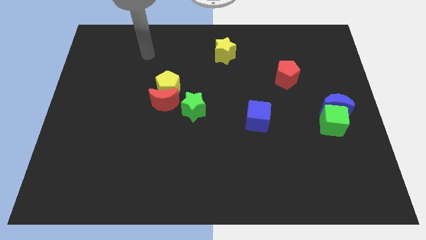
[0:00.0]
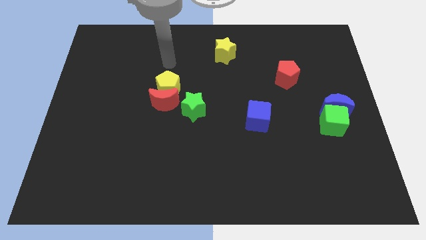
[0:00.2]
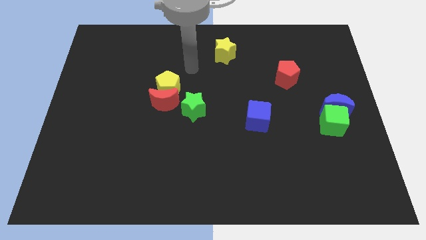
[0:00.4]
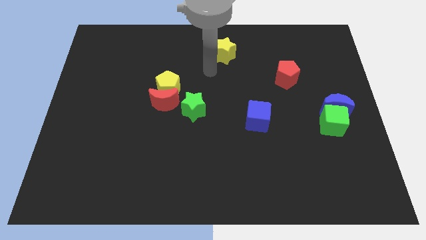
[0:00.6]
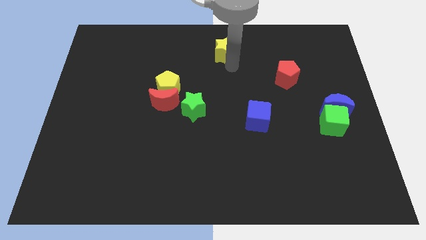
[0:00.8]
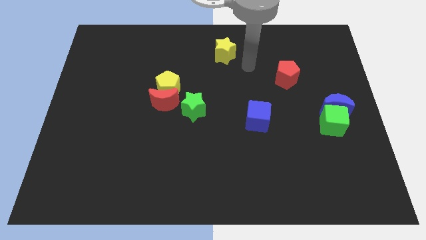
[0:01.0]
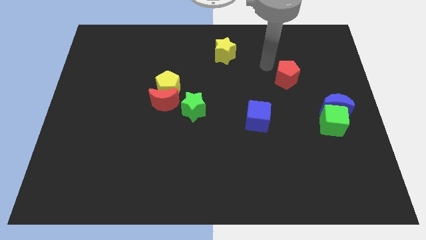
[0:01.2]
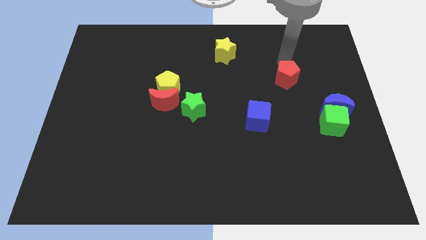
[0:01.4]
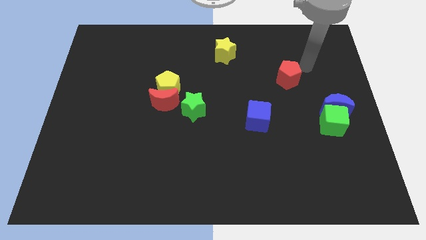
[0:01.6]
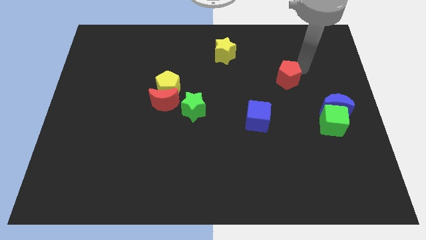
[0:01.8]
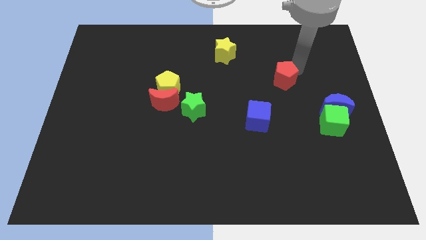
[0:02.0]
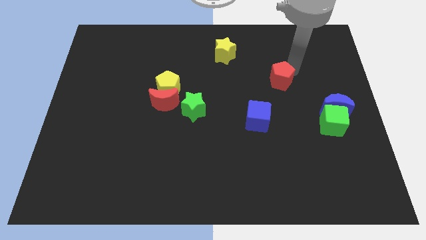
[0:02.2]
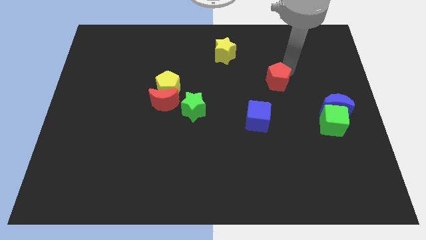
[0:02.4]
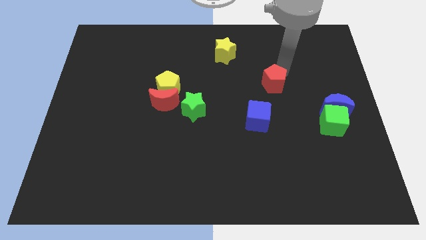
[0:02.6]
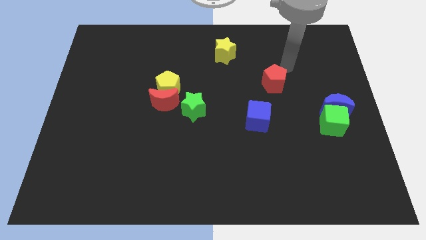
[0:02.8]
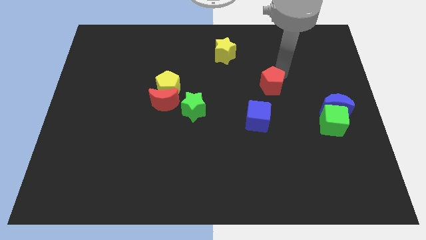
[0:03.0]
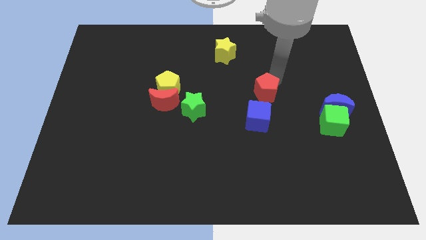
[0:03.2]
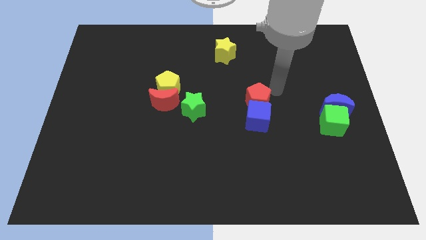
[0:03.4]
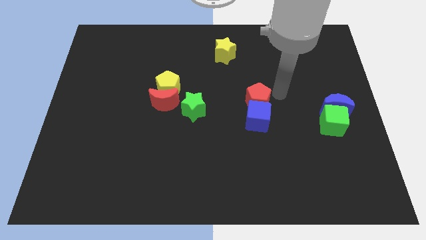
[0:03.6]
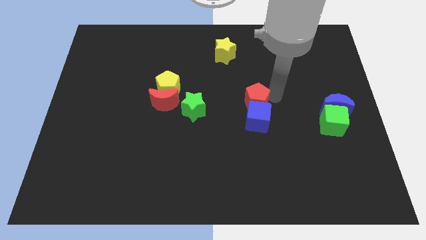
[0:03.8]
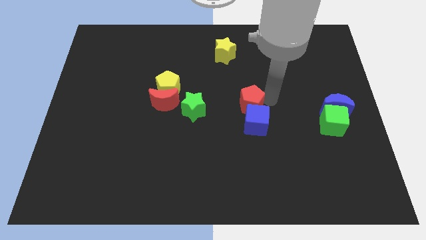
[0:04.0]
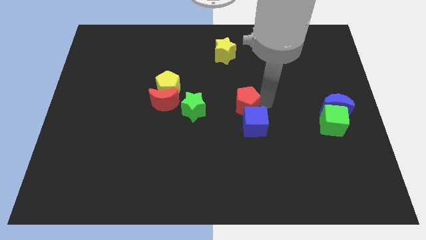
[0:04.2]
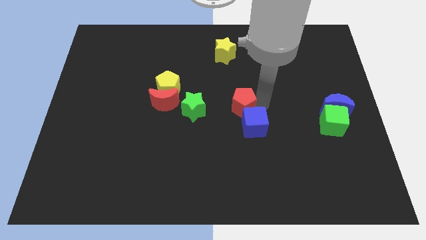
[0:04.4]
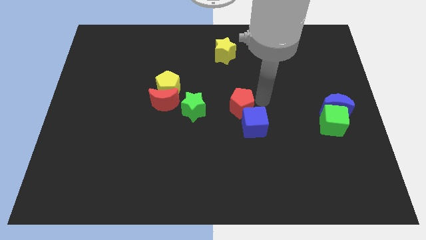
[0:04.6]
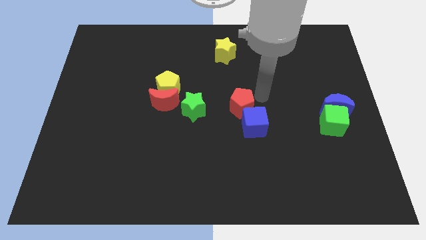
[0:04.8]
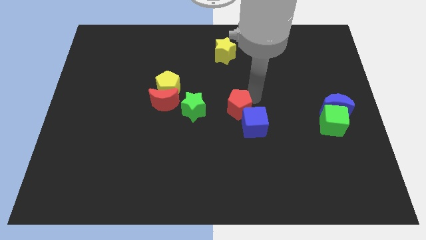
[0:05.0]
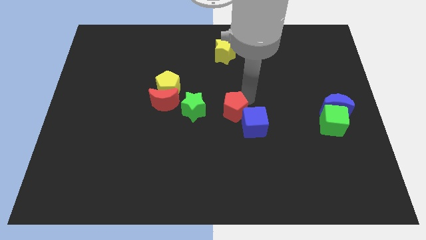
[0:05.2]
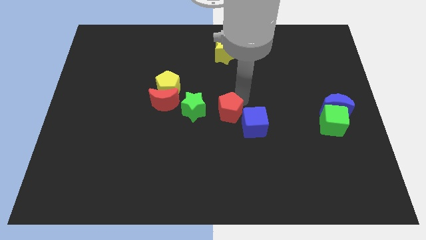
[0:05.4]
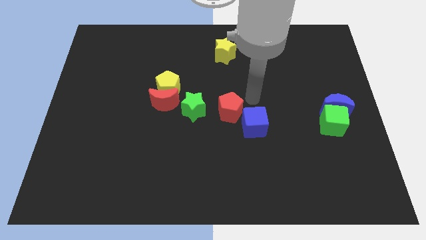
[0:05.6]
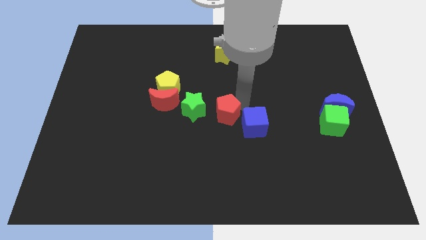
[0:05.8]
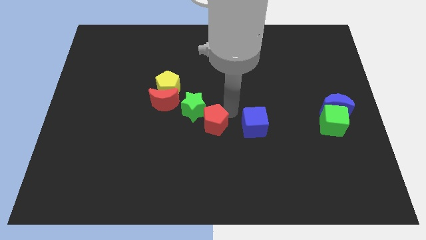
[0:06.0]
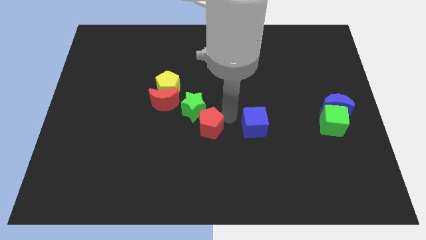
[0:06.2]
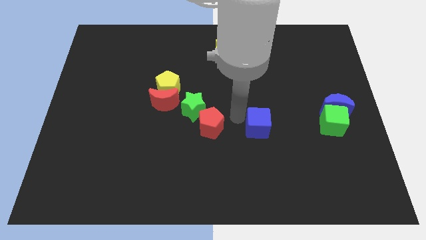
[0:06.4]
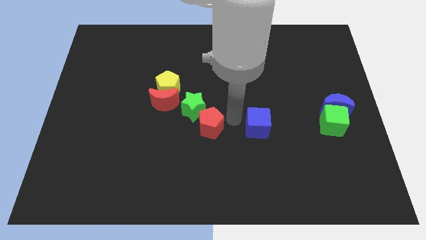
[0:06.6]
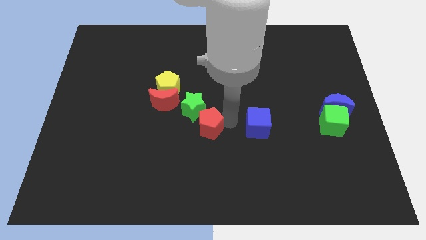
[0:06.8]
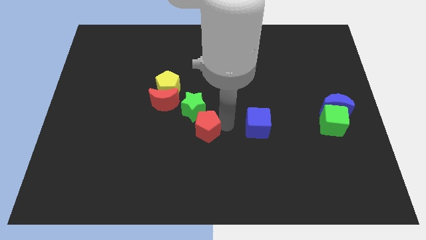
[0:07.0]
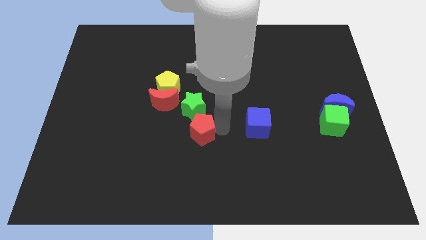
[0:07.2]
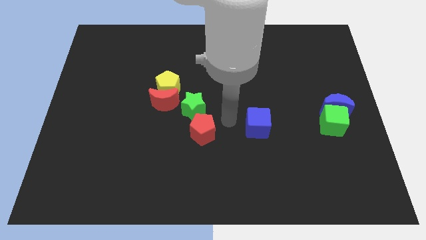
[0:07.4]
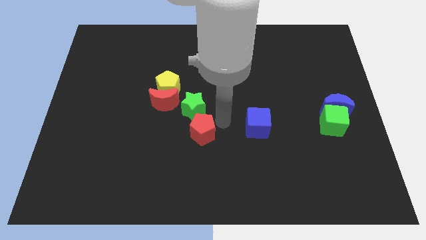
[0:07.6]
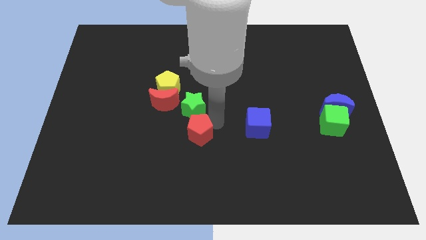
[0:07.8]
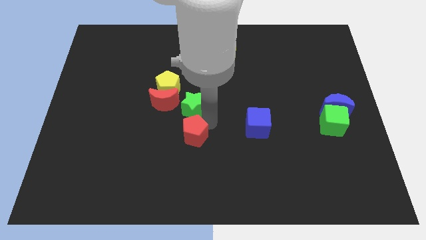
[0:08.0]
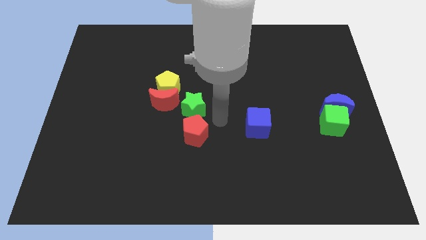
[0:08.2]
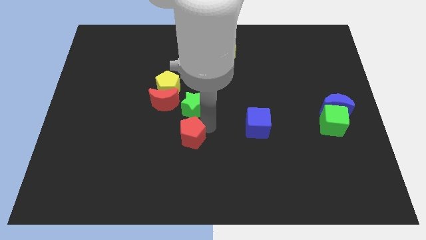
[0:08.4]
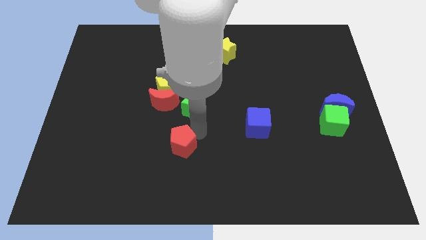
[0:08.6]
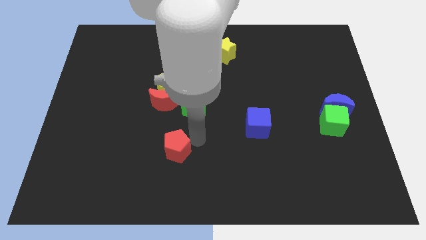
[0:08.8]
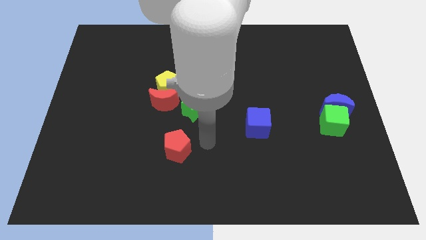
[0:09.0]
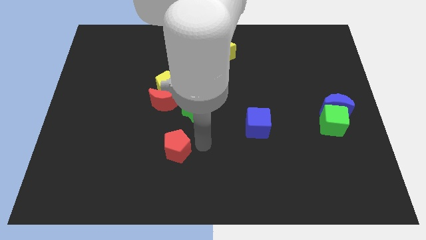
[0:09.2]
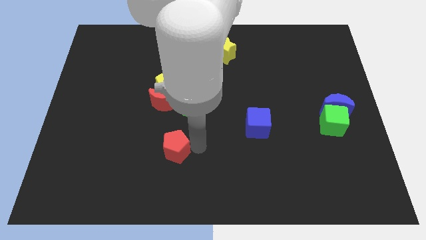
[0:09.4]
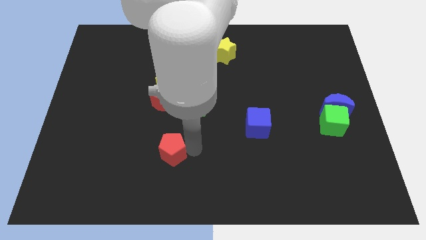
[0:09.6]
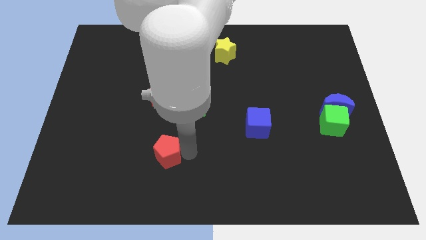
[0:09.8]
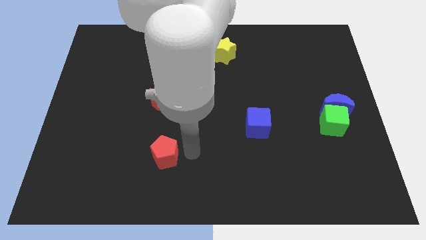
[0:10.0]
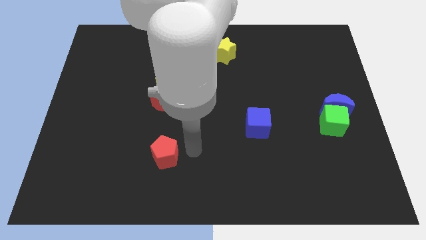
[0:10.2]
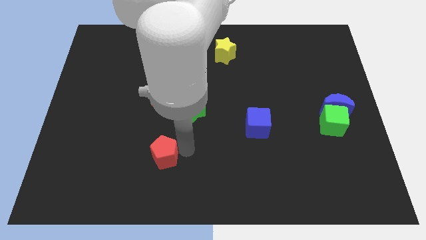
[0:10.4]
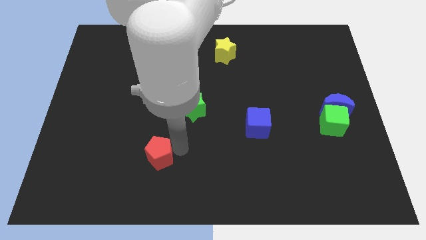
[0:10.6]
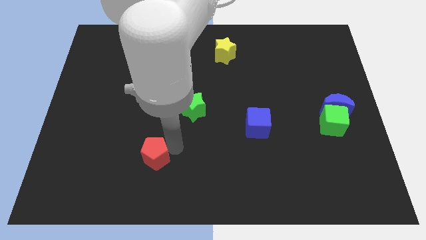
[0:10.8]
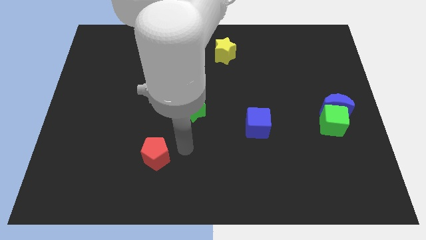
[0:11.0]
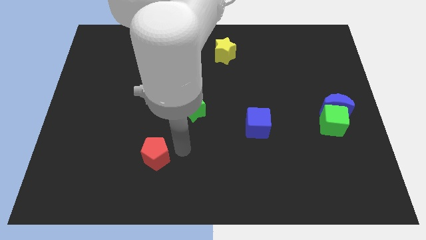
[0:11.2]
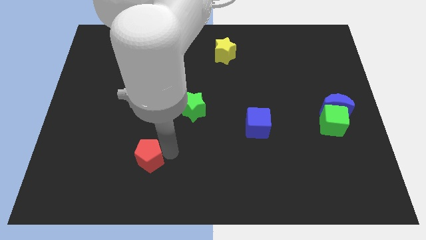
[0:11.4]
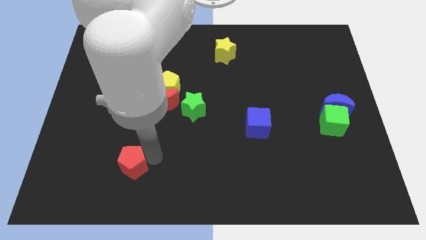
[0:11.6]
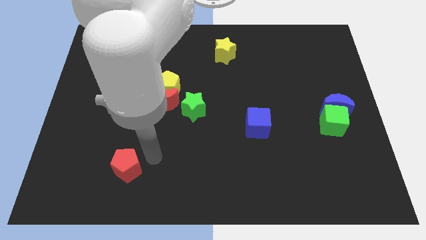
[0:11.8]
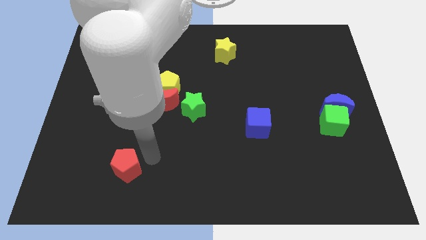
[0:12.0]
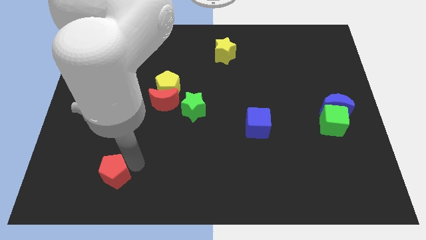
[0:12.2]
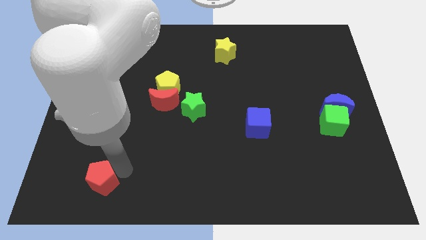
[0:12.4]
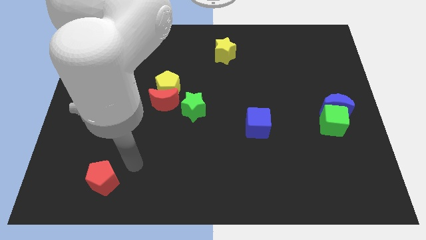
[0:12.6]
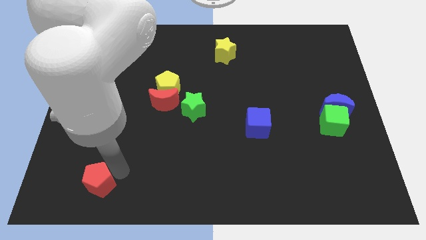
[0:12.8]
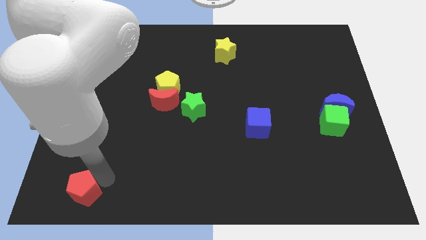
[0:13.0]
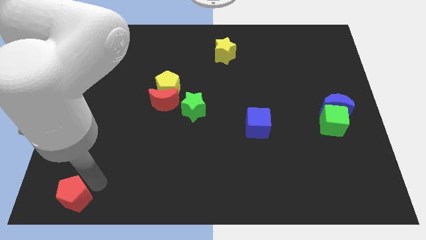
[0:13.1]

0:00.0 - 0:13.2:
slide the red pentagon to the bottom left of the board
